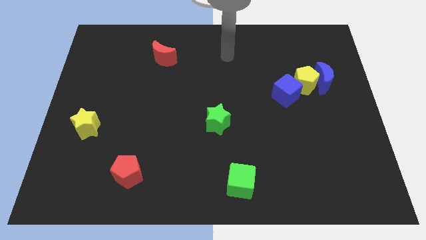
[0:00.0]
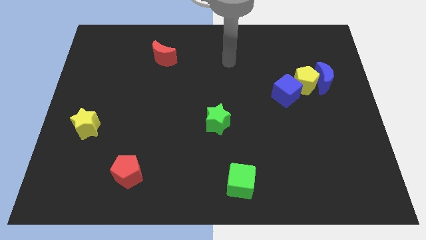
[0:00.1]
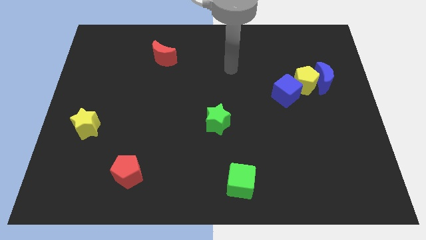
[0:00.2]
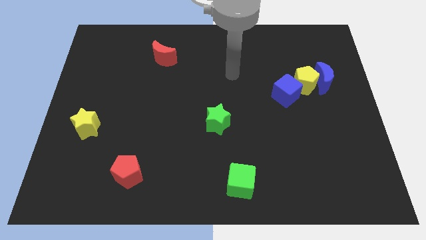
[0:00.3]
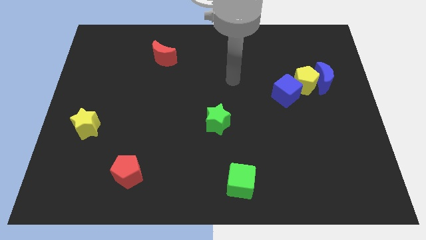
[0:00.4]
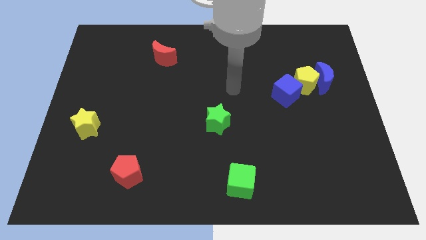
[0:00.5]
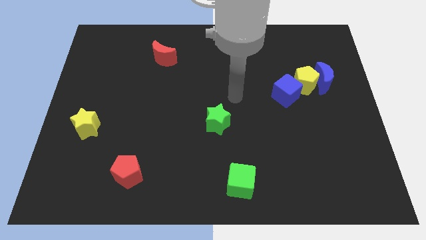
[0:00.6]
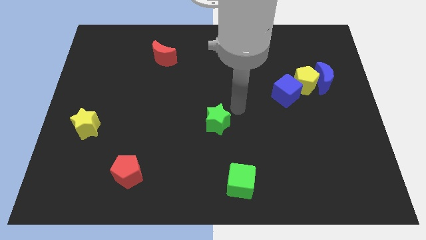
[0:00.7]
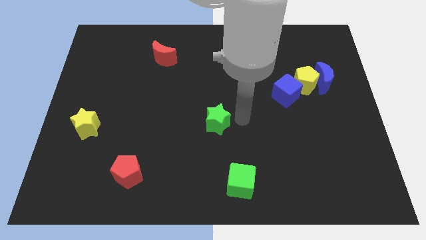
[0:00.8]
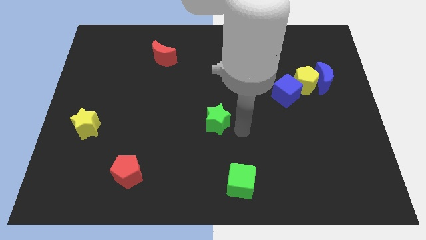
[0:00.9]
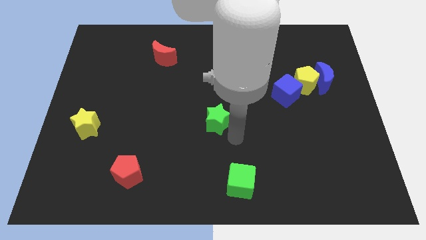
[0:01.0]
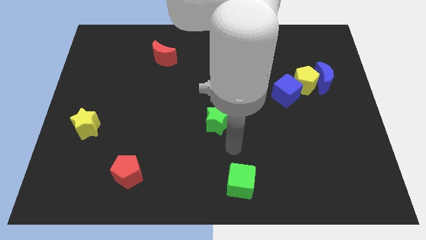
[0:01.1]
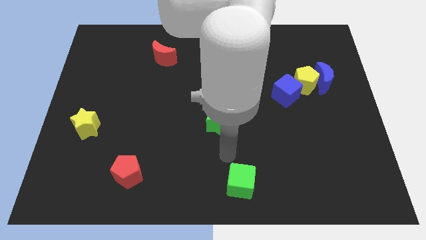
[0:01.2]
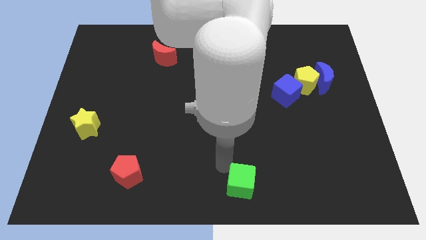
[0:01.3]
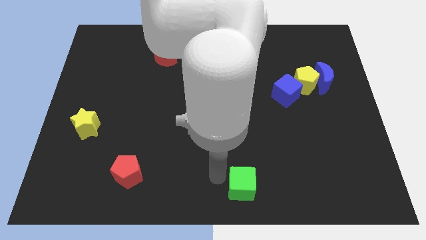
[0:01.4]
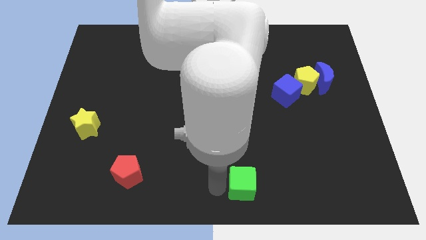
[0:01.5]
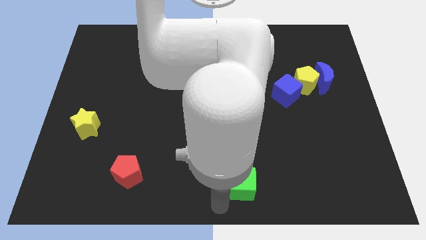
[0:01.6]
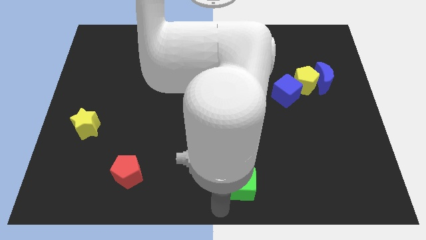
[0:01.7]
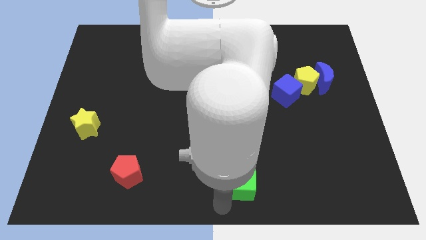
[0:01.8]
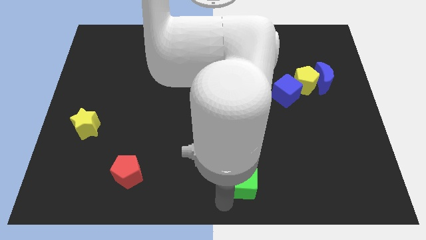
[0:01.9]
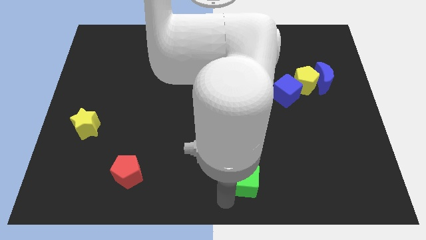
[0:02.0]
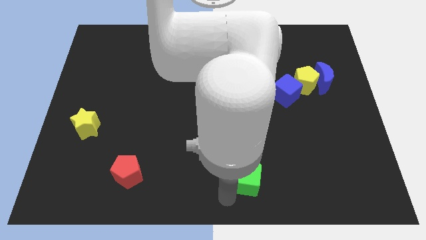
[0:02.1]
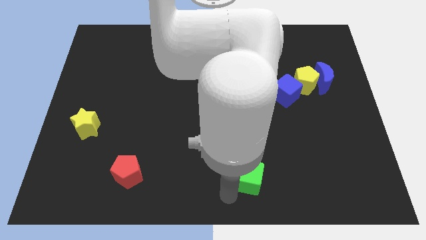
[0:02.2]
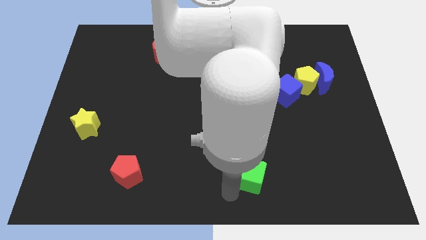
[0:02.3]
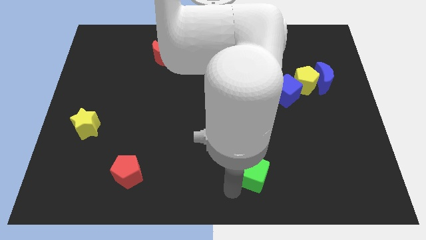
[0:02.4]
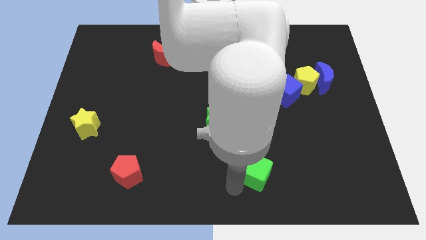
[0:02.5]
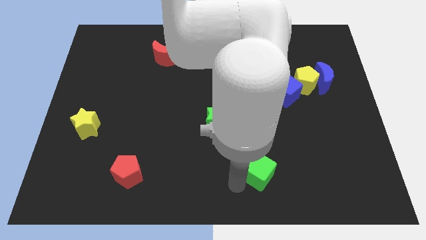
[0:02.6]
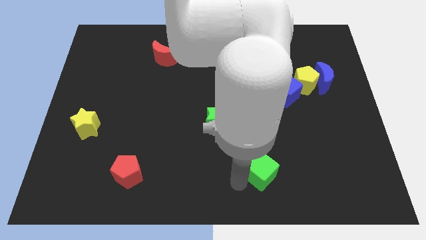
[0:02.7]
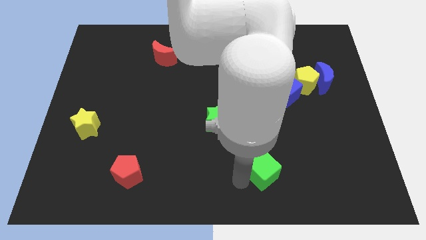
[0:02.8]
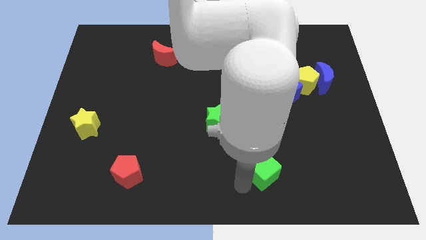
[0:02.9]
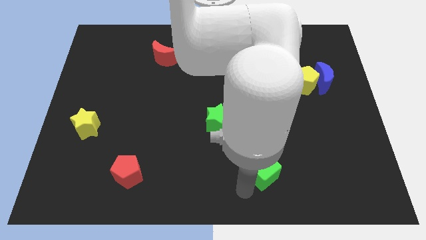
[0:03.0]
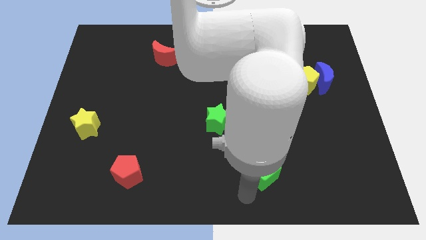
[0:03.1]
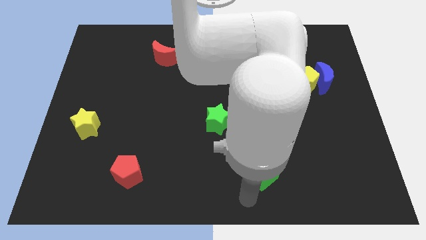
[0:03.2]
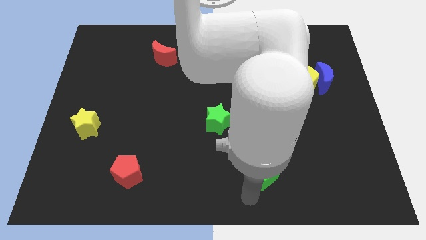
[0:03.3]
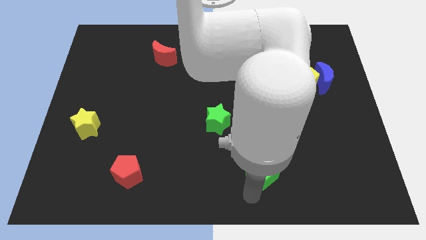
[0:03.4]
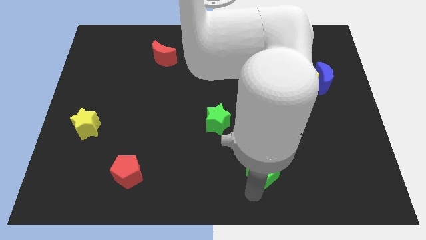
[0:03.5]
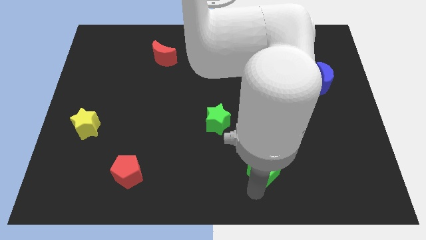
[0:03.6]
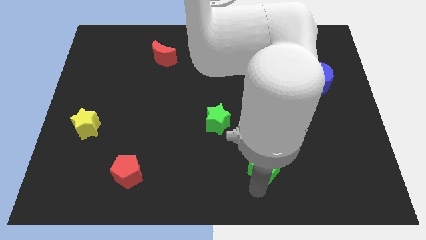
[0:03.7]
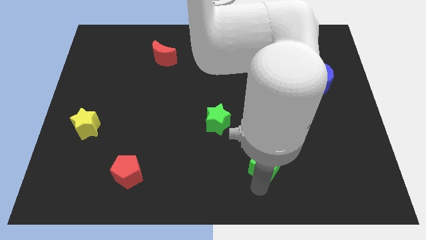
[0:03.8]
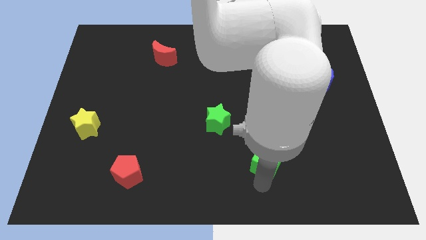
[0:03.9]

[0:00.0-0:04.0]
push the green cube a little bit diagonally up and to the right

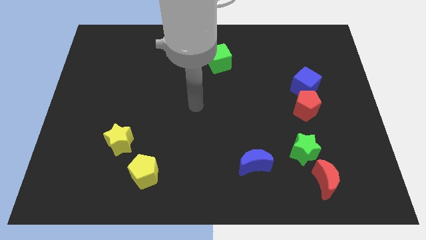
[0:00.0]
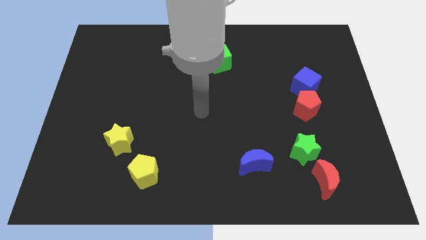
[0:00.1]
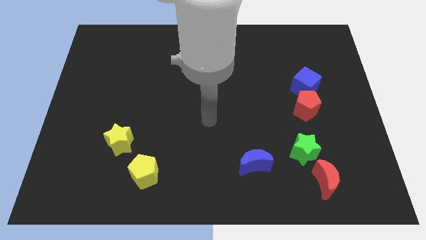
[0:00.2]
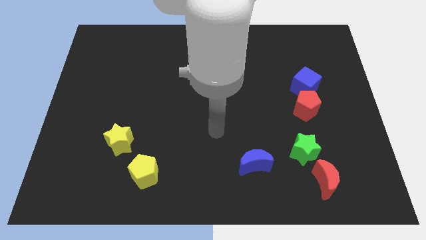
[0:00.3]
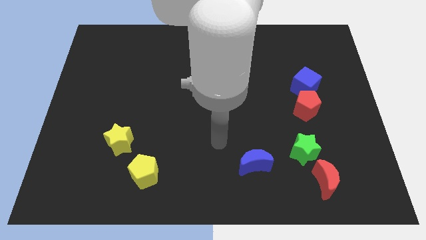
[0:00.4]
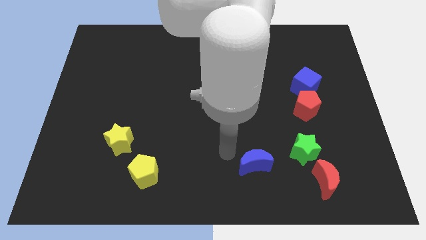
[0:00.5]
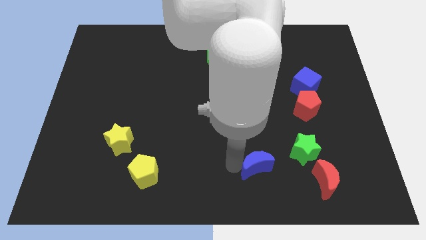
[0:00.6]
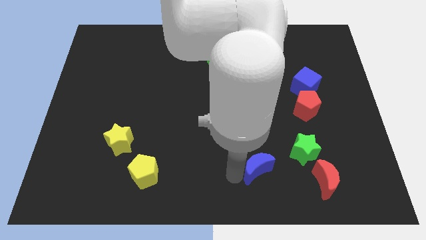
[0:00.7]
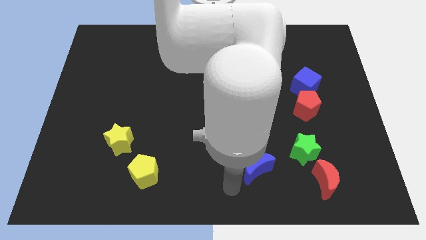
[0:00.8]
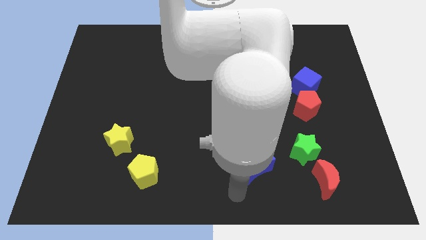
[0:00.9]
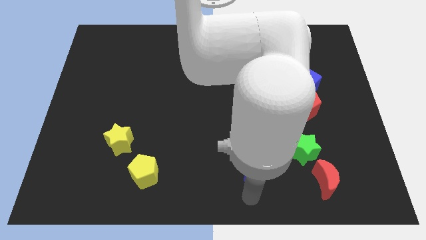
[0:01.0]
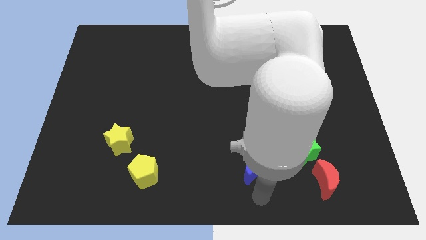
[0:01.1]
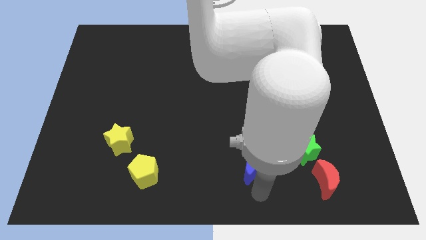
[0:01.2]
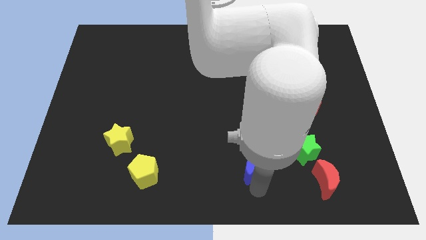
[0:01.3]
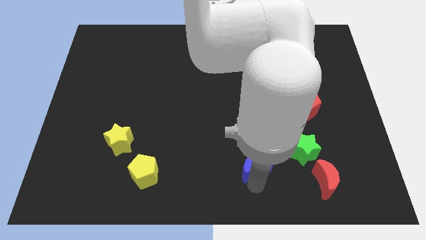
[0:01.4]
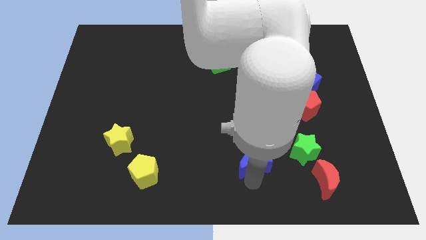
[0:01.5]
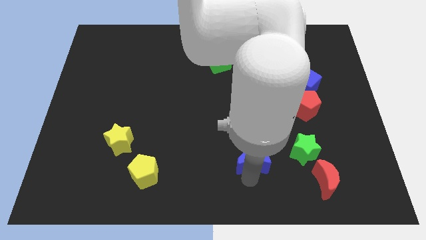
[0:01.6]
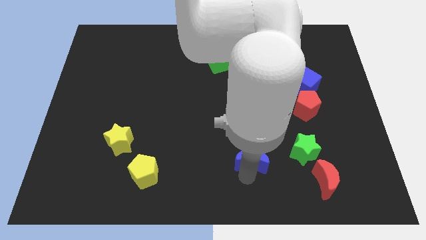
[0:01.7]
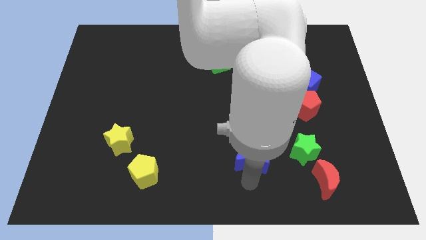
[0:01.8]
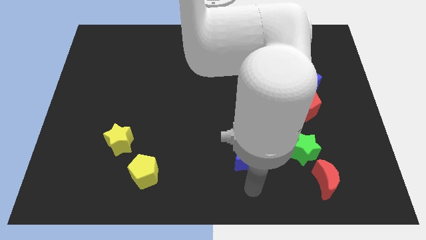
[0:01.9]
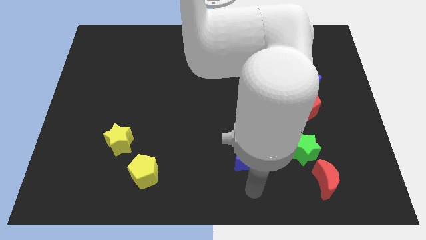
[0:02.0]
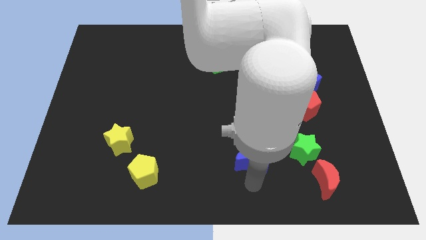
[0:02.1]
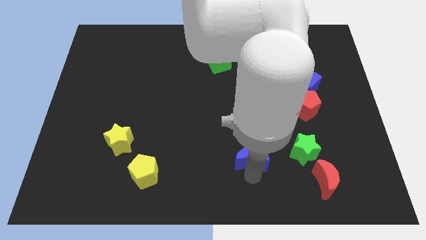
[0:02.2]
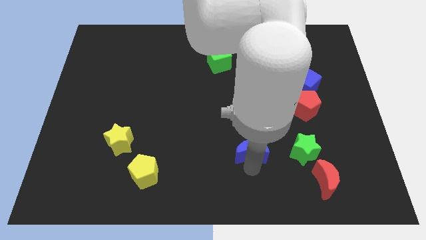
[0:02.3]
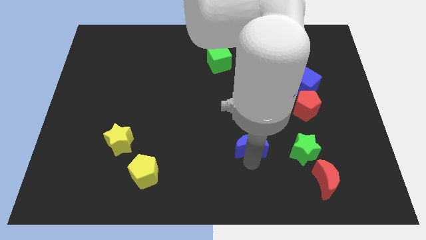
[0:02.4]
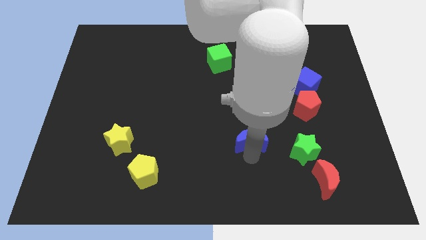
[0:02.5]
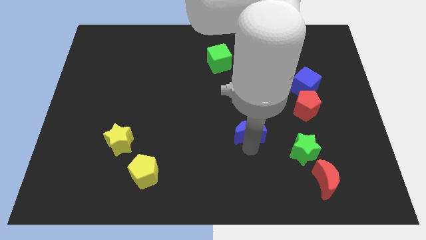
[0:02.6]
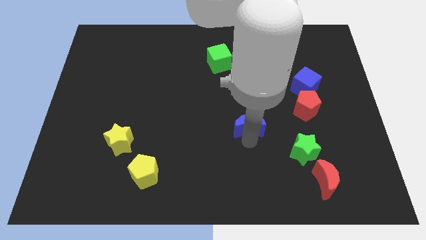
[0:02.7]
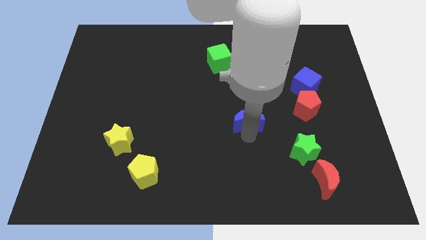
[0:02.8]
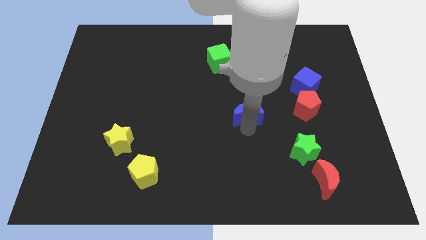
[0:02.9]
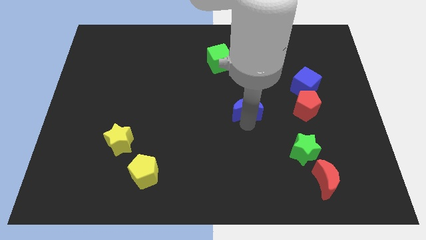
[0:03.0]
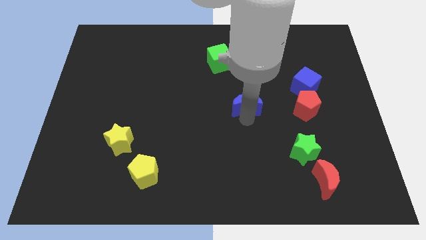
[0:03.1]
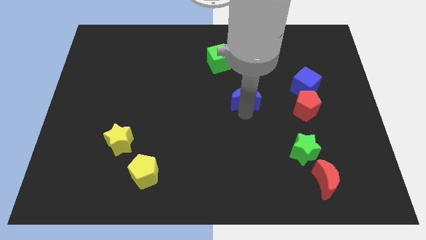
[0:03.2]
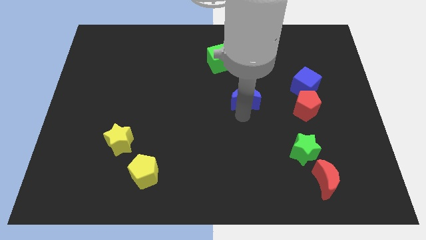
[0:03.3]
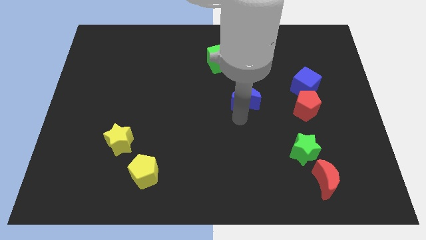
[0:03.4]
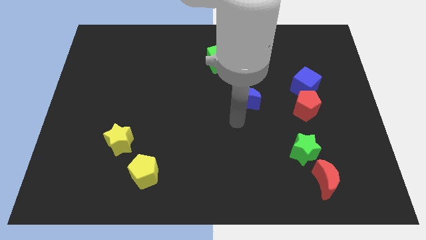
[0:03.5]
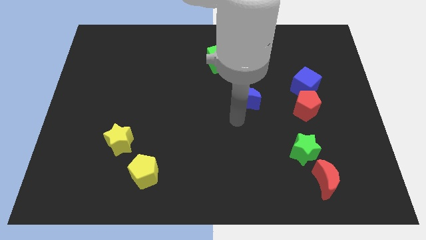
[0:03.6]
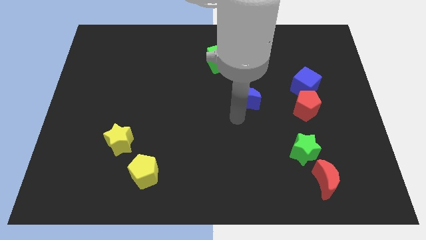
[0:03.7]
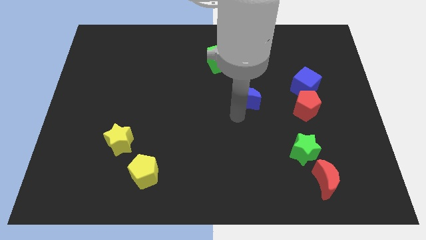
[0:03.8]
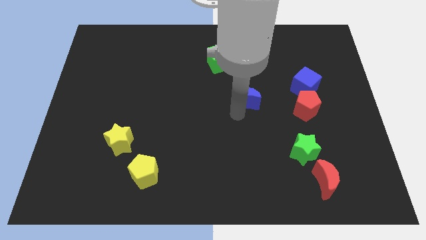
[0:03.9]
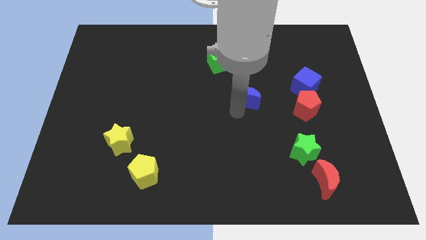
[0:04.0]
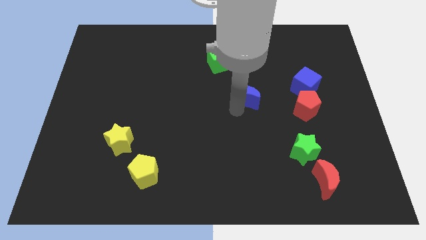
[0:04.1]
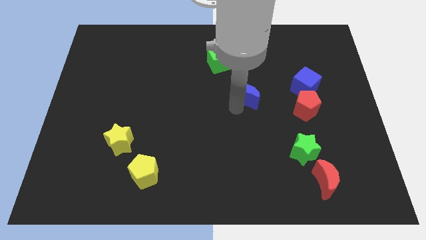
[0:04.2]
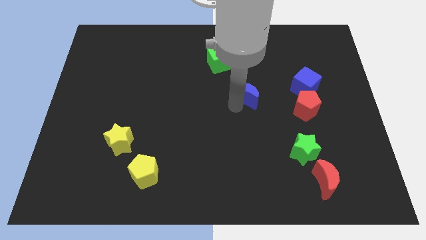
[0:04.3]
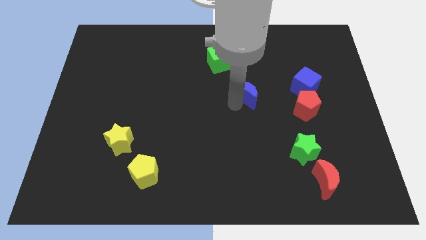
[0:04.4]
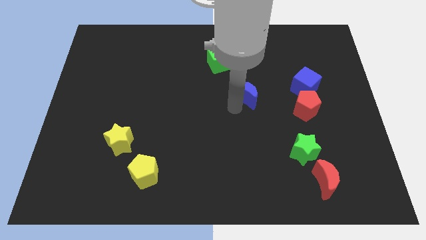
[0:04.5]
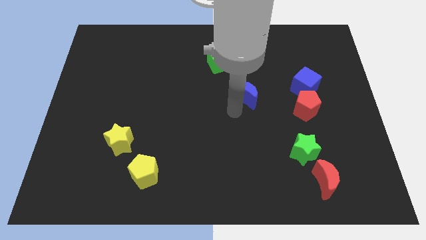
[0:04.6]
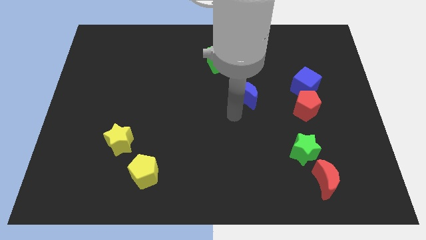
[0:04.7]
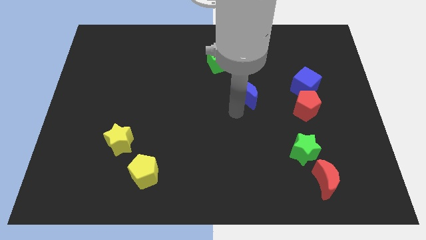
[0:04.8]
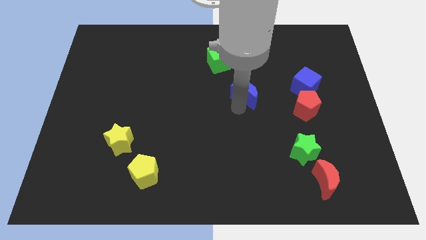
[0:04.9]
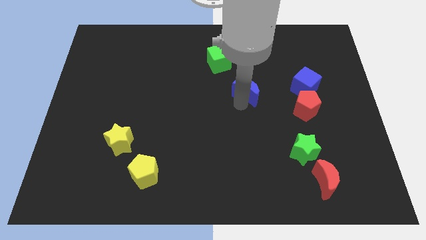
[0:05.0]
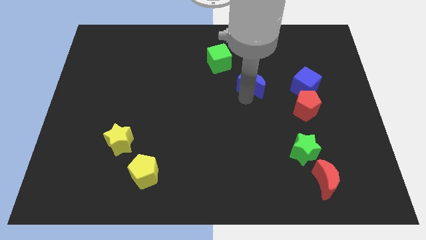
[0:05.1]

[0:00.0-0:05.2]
push the blue moon up
